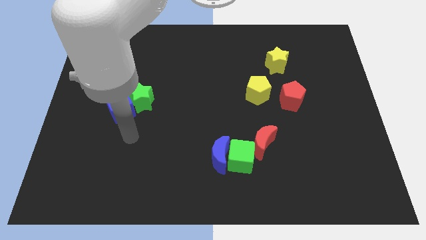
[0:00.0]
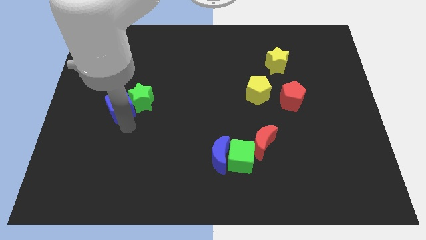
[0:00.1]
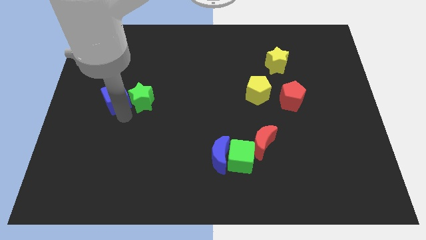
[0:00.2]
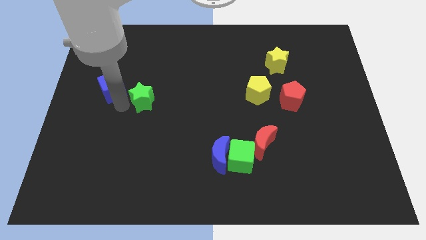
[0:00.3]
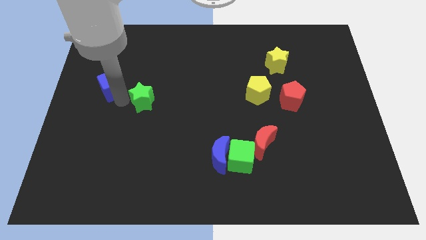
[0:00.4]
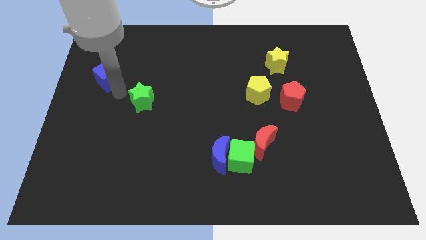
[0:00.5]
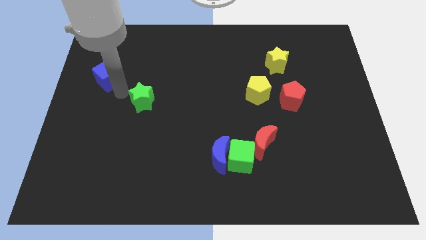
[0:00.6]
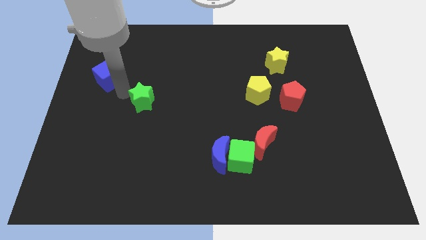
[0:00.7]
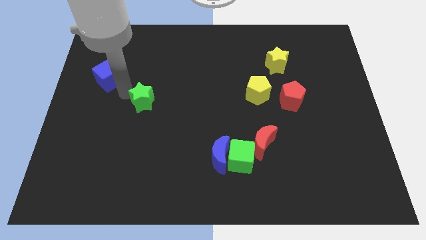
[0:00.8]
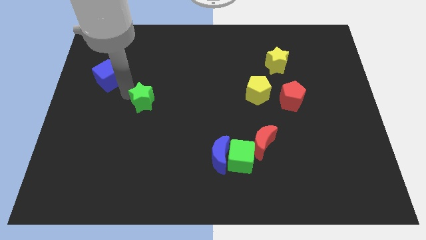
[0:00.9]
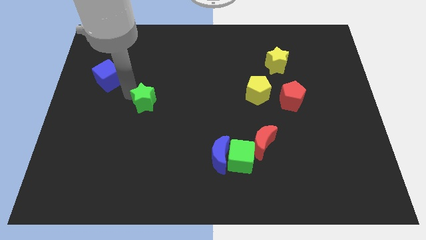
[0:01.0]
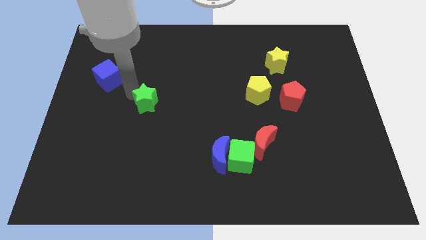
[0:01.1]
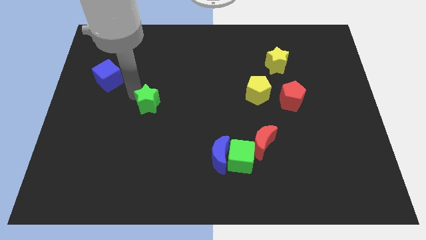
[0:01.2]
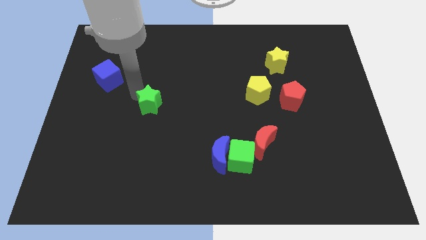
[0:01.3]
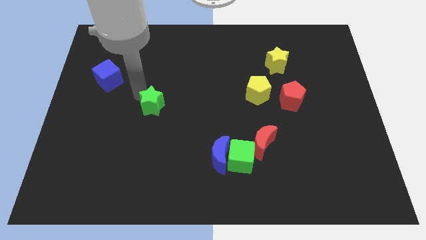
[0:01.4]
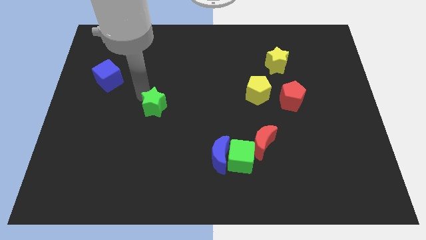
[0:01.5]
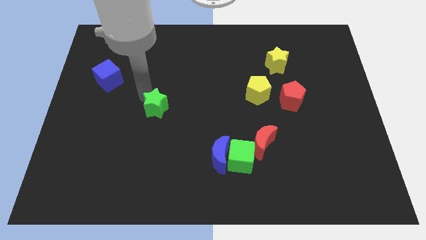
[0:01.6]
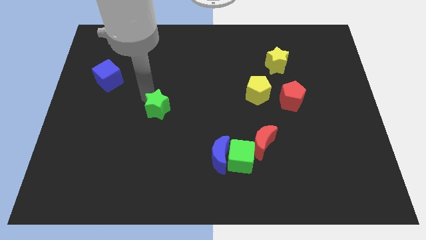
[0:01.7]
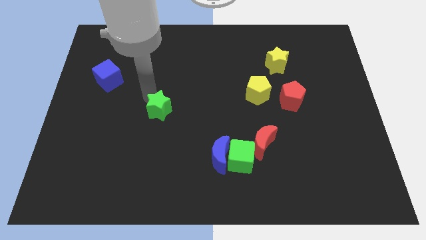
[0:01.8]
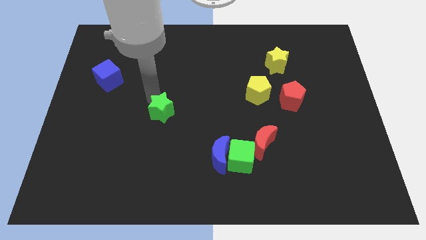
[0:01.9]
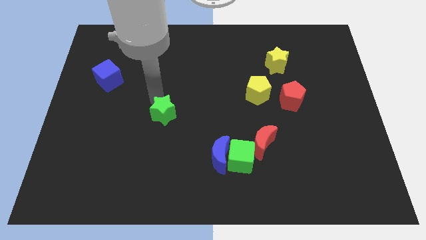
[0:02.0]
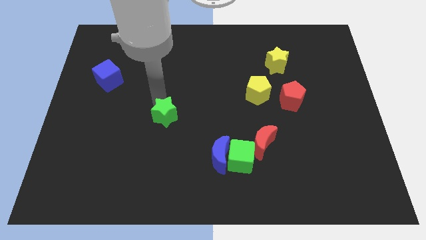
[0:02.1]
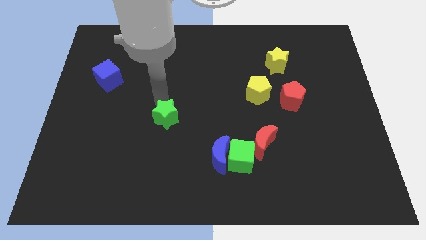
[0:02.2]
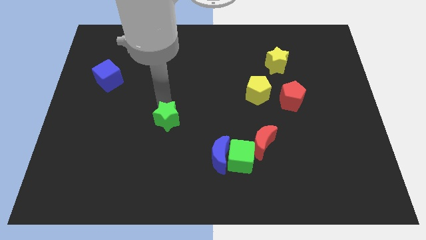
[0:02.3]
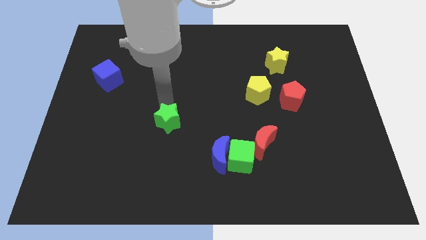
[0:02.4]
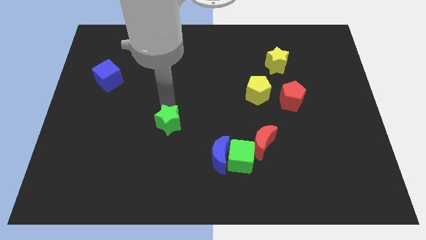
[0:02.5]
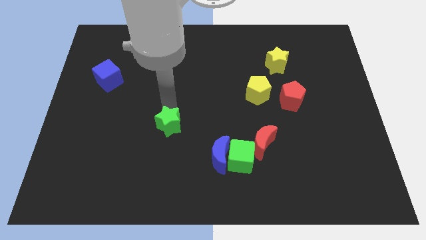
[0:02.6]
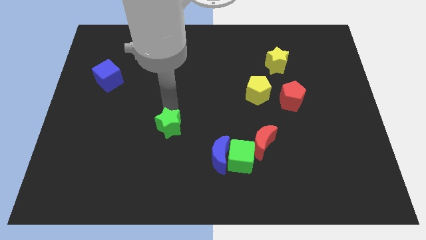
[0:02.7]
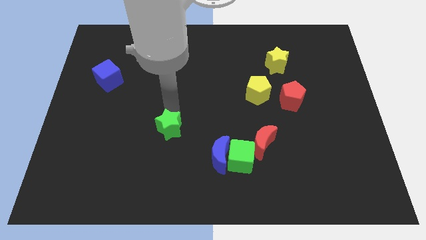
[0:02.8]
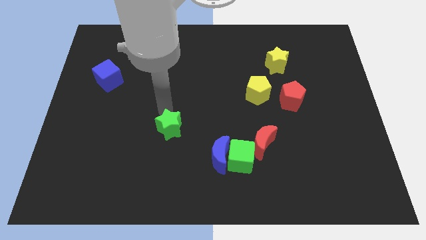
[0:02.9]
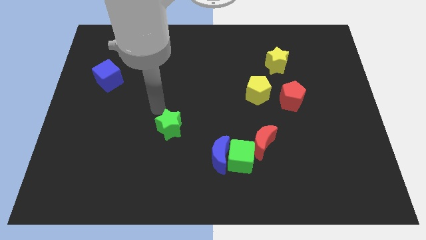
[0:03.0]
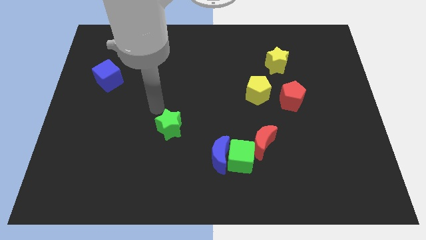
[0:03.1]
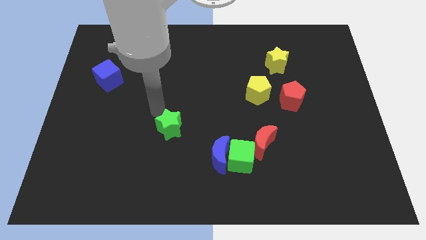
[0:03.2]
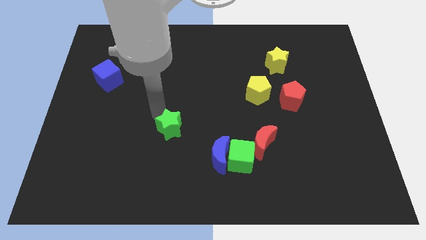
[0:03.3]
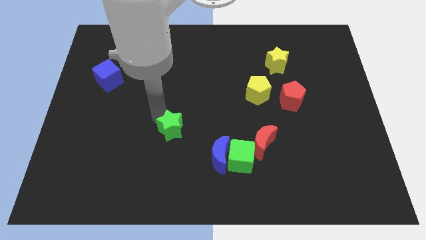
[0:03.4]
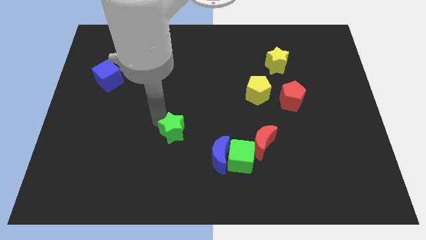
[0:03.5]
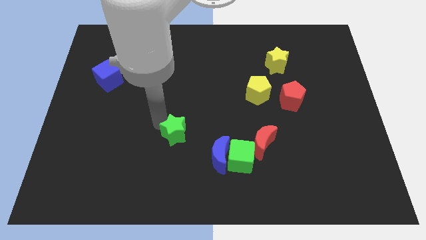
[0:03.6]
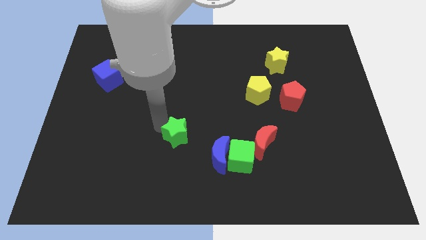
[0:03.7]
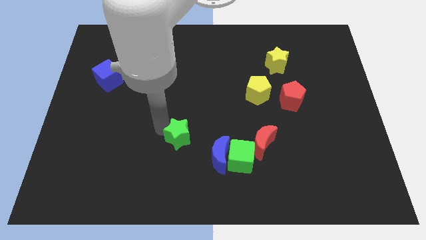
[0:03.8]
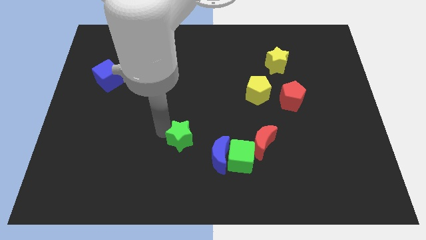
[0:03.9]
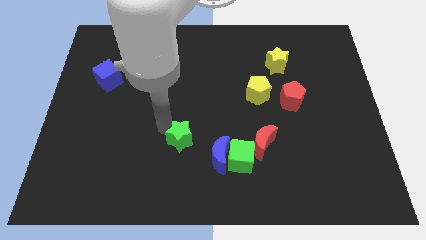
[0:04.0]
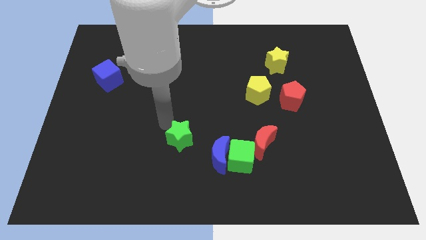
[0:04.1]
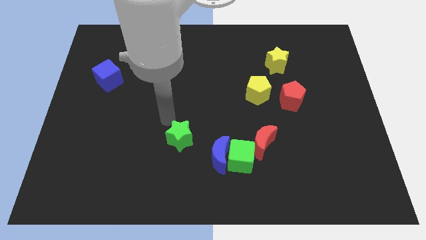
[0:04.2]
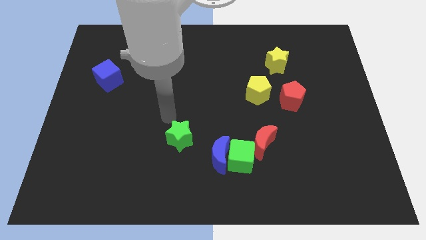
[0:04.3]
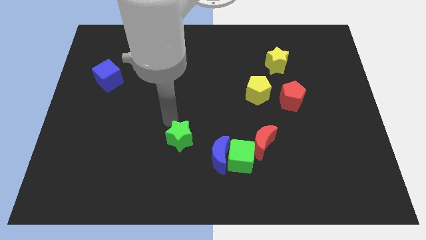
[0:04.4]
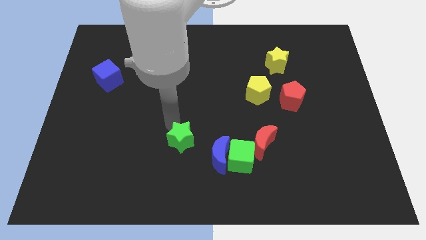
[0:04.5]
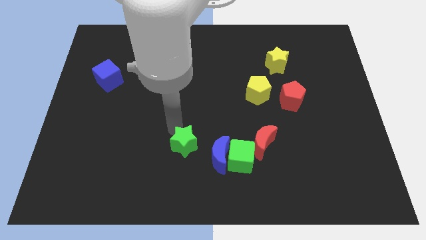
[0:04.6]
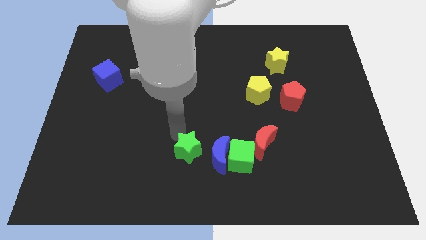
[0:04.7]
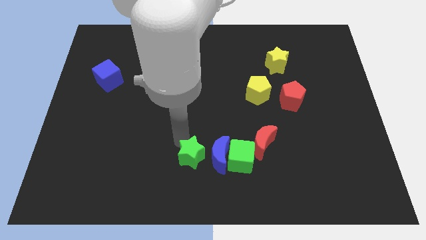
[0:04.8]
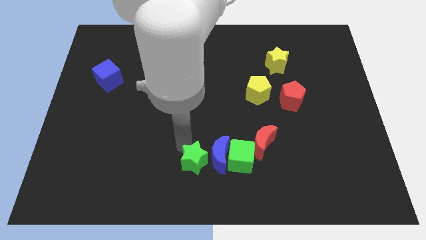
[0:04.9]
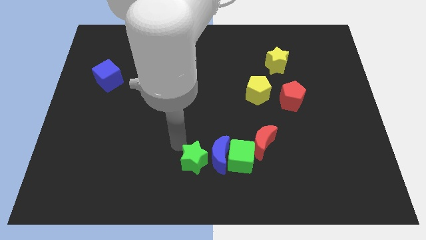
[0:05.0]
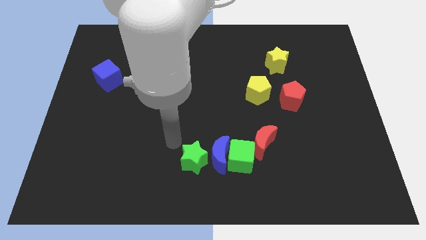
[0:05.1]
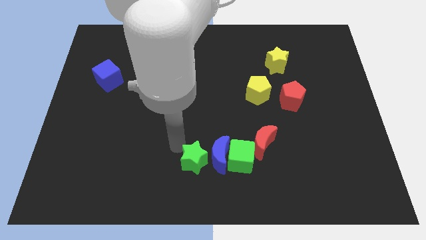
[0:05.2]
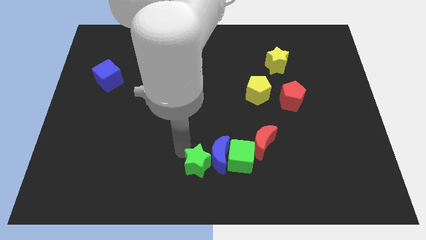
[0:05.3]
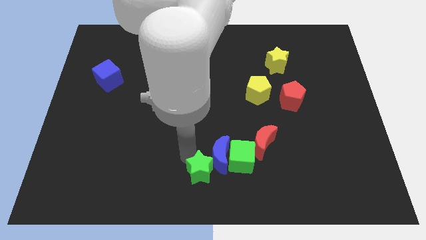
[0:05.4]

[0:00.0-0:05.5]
push the green star to the bottom left side of the green cube

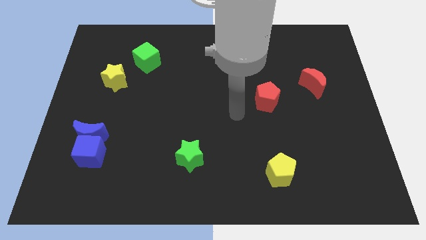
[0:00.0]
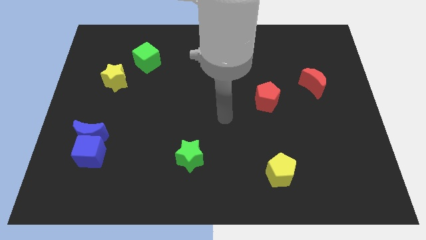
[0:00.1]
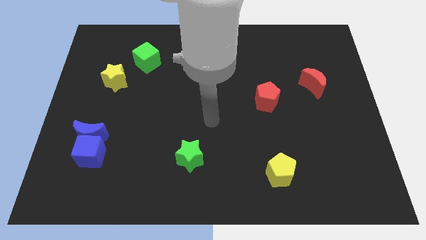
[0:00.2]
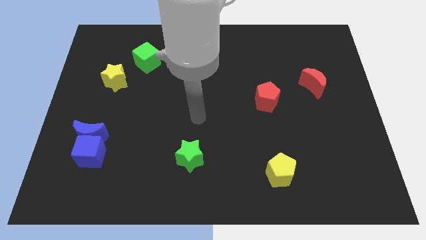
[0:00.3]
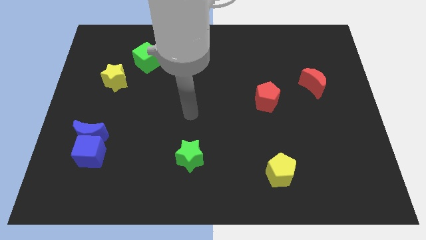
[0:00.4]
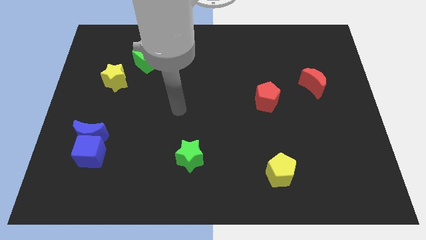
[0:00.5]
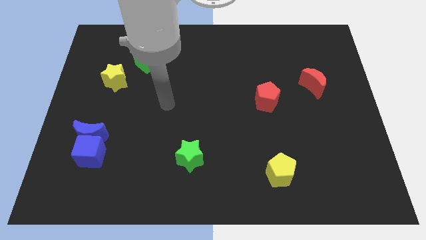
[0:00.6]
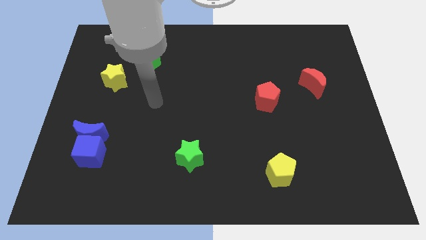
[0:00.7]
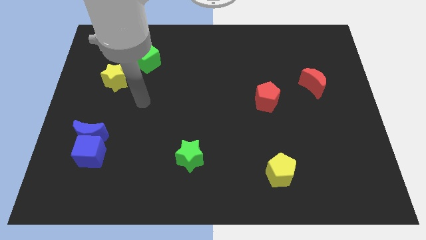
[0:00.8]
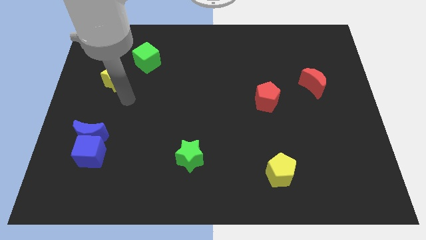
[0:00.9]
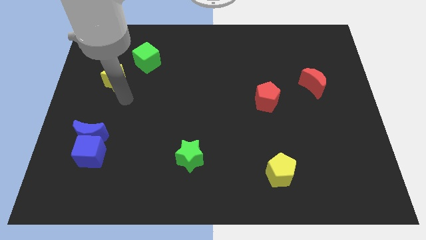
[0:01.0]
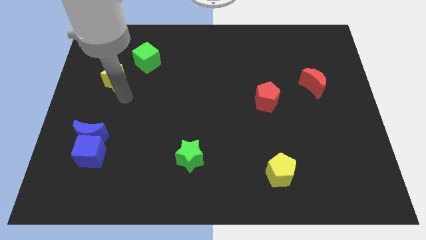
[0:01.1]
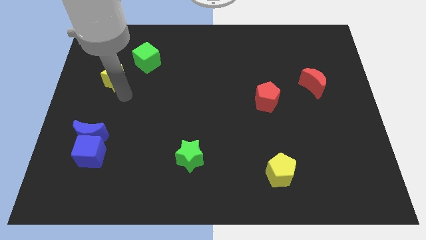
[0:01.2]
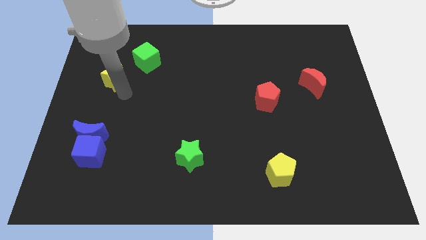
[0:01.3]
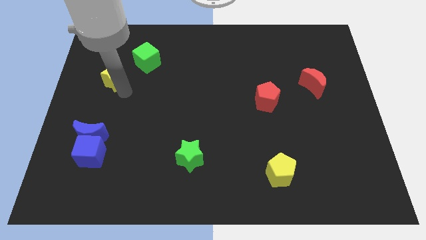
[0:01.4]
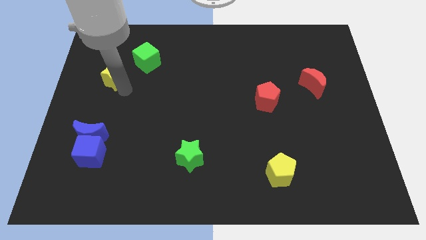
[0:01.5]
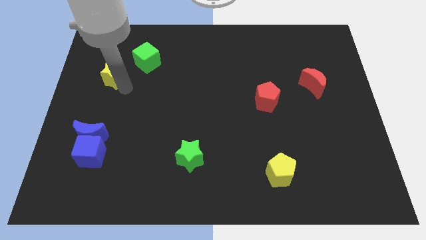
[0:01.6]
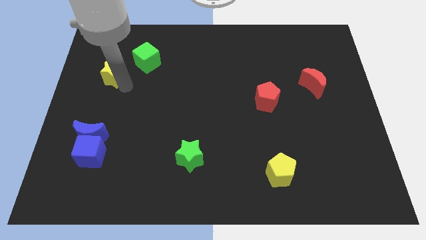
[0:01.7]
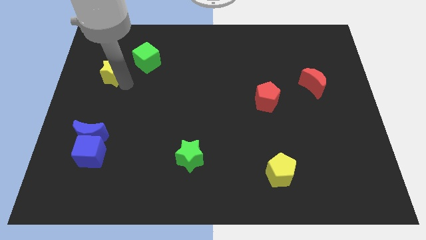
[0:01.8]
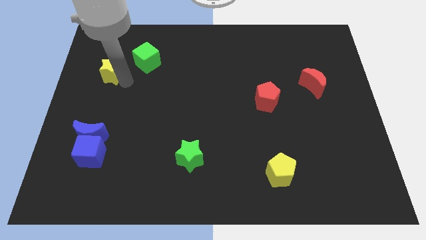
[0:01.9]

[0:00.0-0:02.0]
put the yellow star left of the green cube

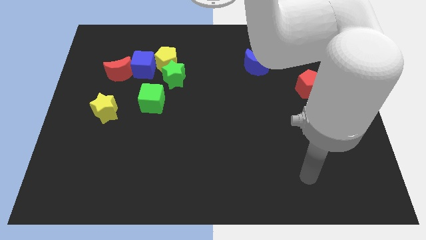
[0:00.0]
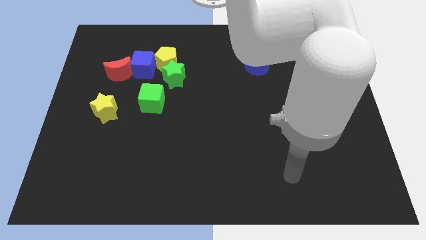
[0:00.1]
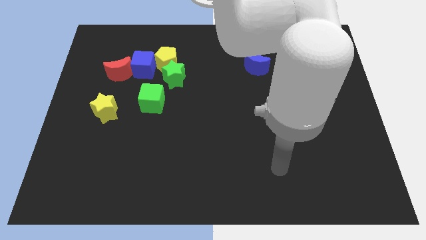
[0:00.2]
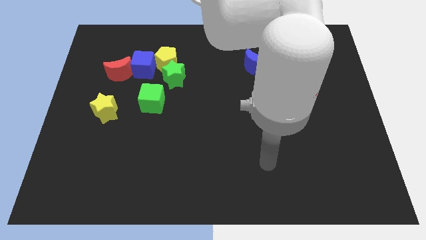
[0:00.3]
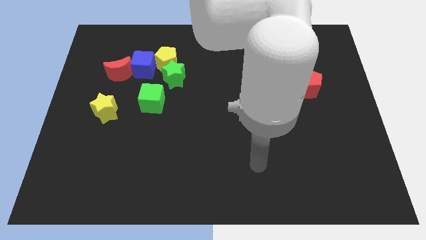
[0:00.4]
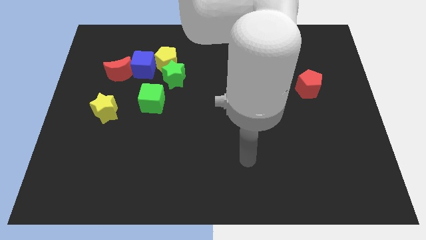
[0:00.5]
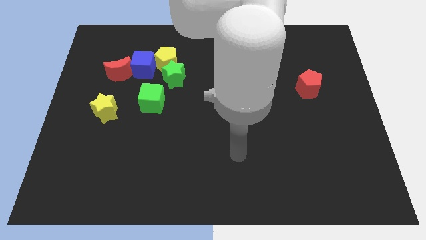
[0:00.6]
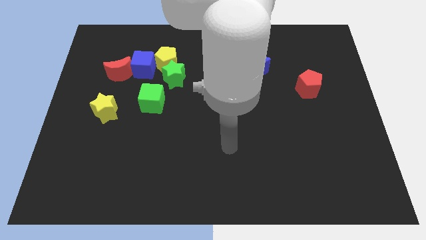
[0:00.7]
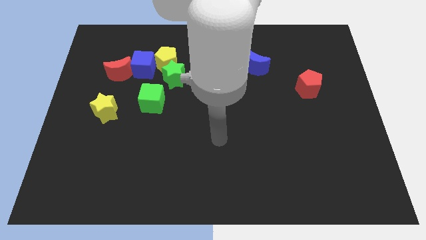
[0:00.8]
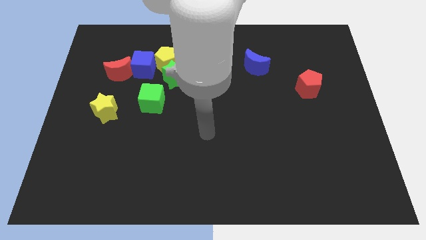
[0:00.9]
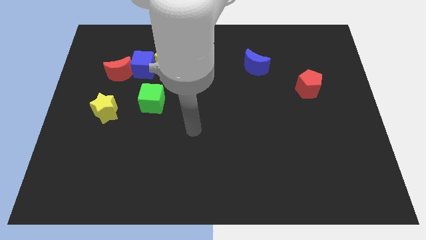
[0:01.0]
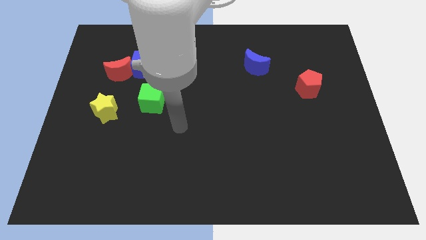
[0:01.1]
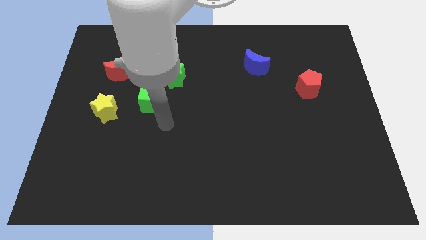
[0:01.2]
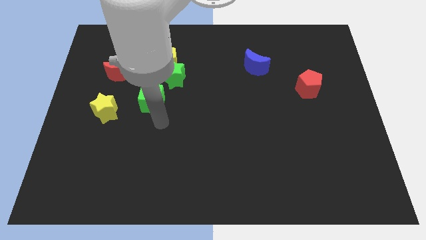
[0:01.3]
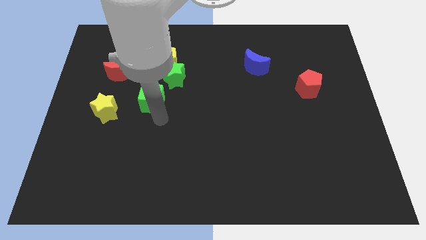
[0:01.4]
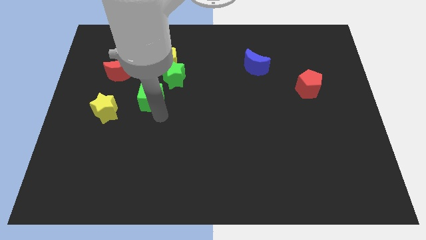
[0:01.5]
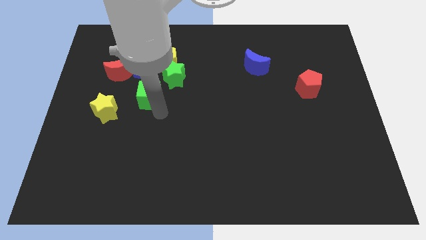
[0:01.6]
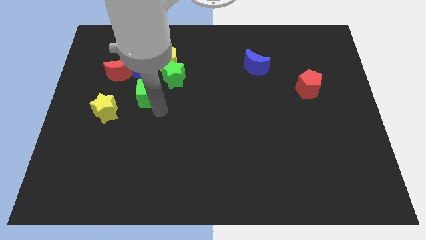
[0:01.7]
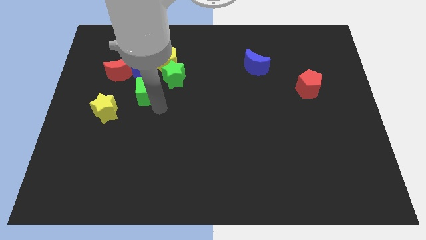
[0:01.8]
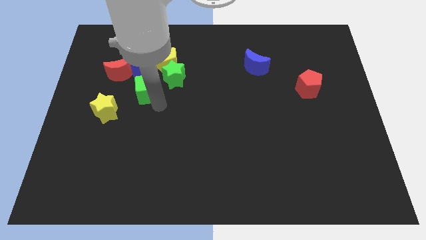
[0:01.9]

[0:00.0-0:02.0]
move the green cube diagonally down and to the left of the yellow pentagon
